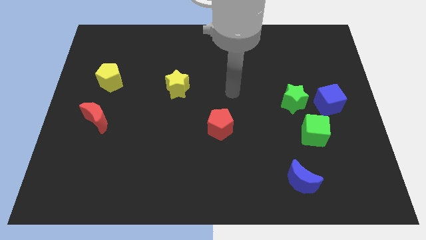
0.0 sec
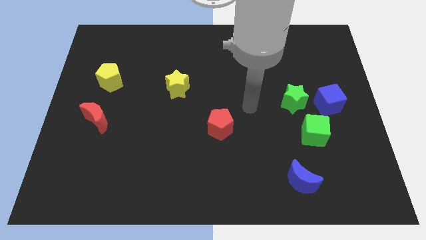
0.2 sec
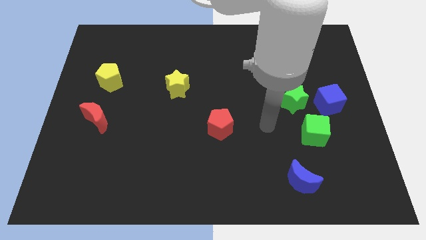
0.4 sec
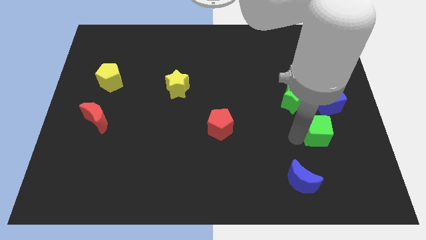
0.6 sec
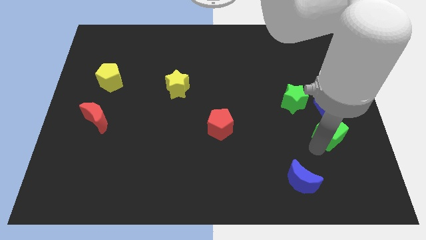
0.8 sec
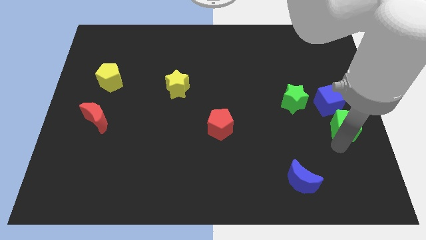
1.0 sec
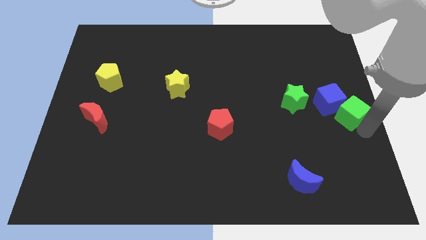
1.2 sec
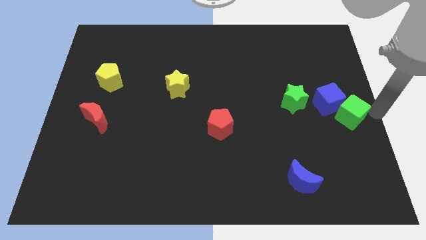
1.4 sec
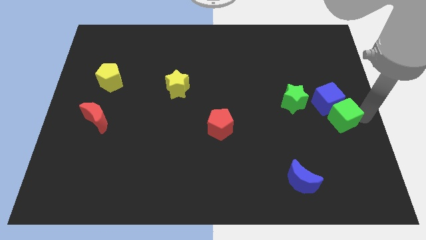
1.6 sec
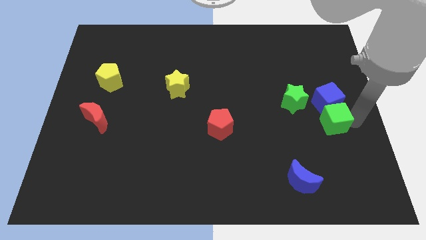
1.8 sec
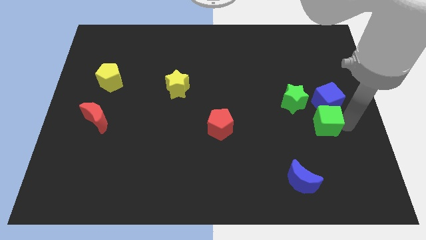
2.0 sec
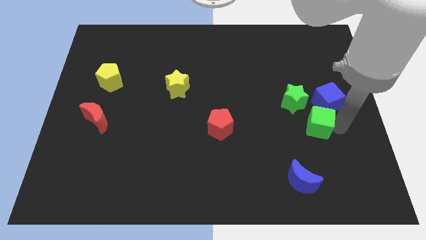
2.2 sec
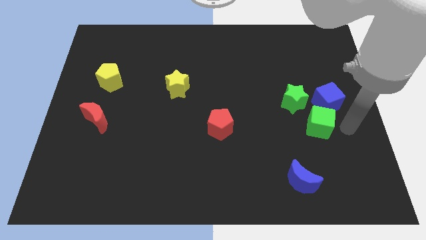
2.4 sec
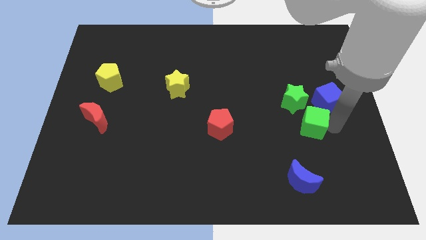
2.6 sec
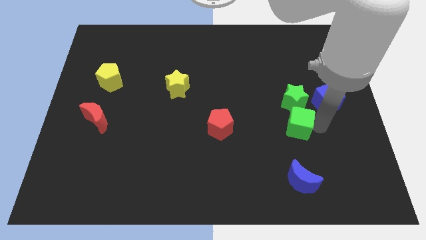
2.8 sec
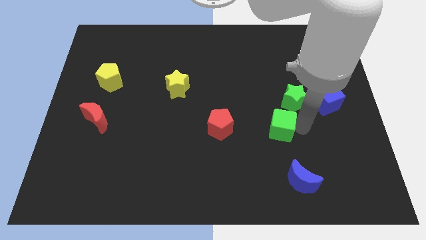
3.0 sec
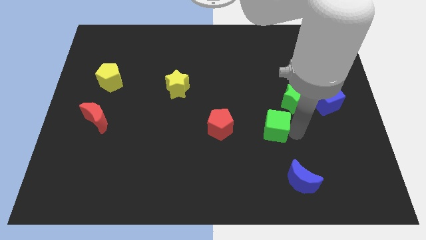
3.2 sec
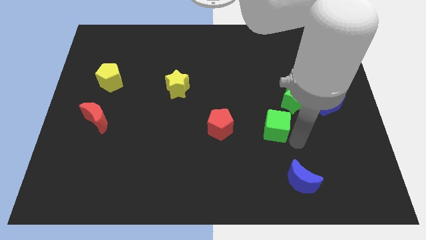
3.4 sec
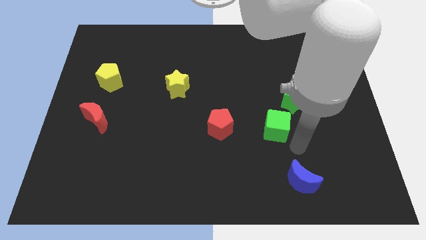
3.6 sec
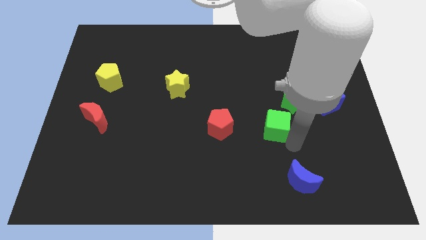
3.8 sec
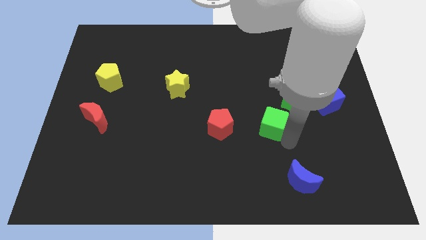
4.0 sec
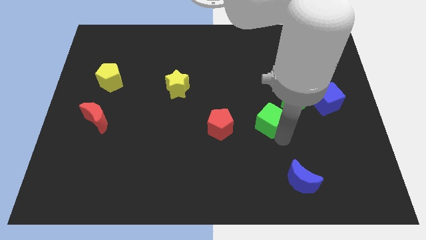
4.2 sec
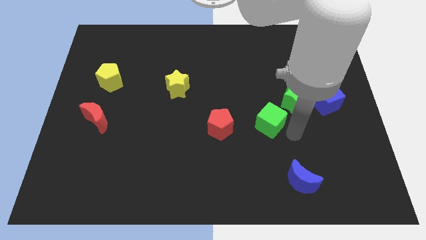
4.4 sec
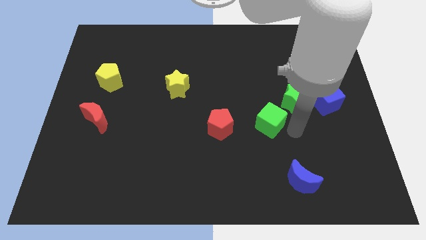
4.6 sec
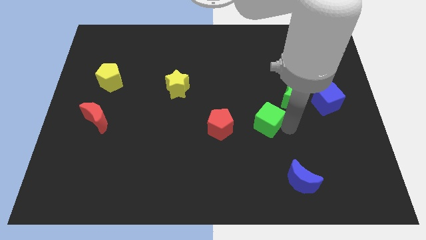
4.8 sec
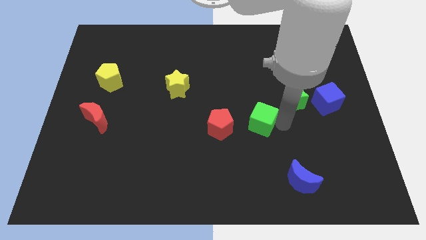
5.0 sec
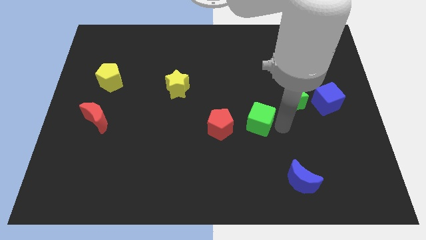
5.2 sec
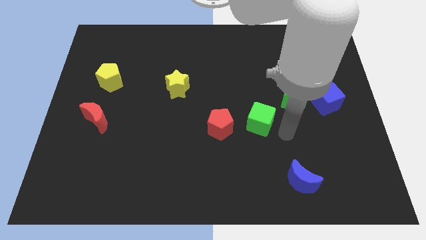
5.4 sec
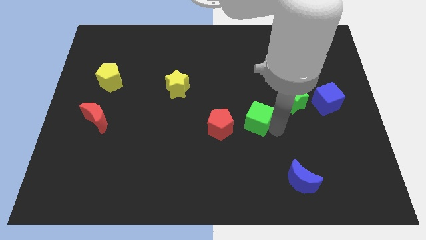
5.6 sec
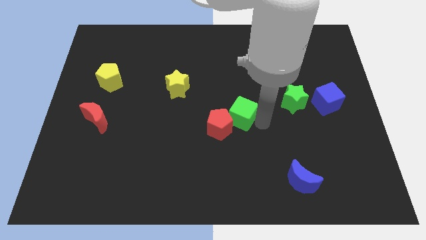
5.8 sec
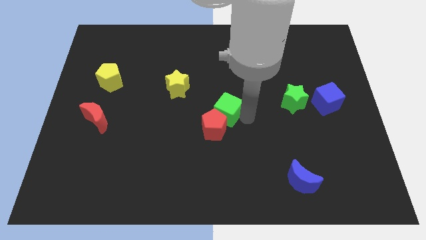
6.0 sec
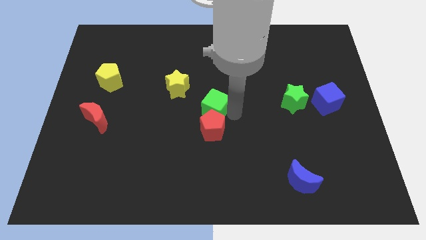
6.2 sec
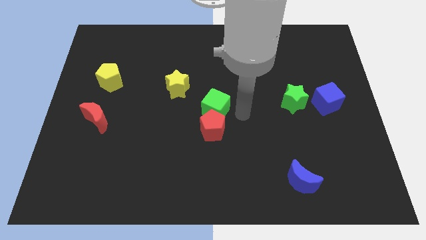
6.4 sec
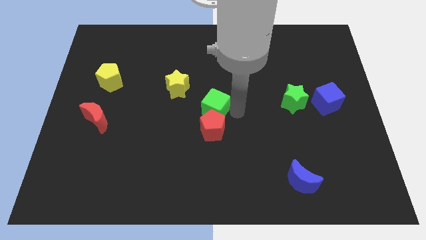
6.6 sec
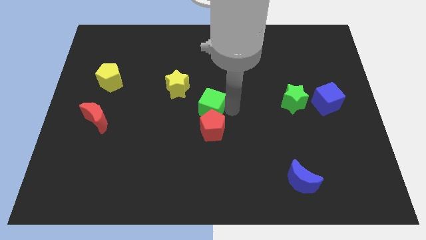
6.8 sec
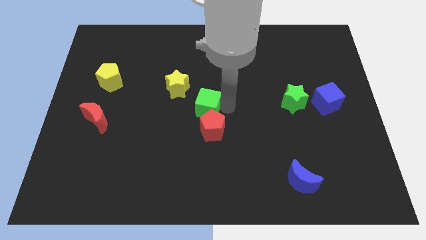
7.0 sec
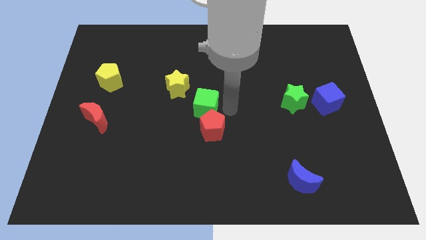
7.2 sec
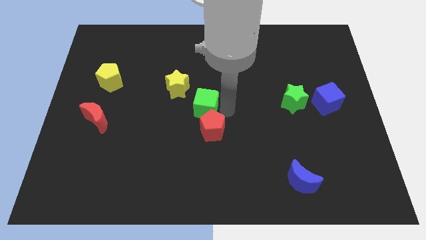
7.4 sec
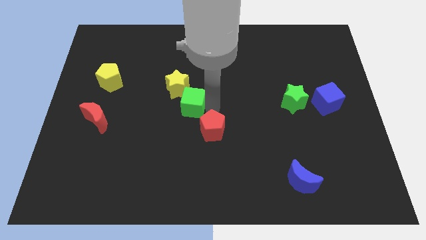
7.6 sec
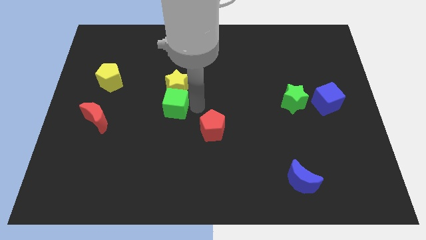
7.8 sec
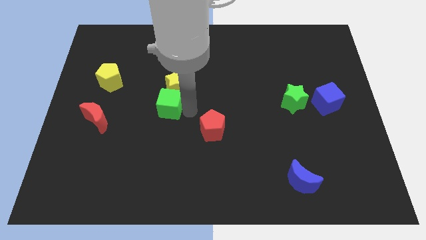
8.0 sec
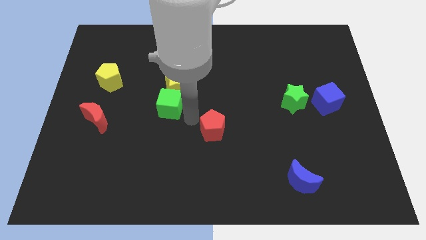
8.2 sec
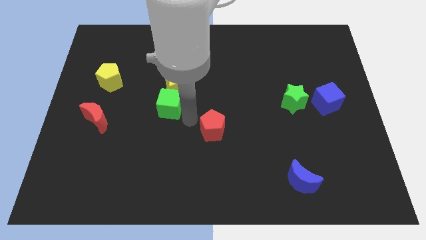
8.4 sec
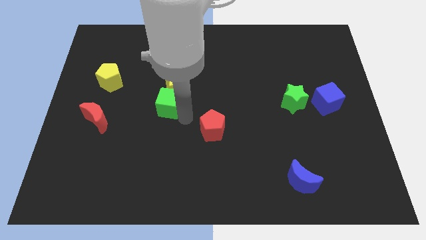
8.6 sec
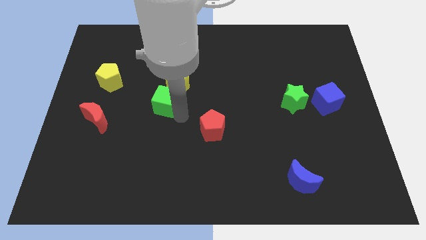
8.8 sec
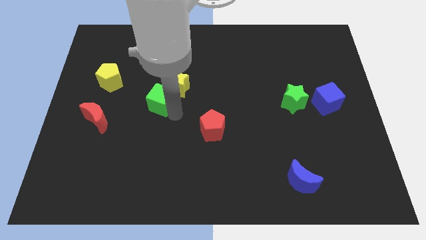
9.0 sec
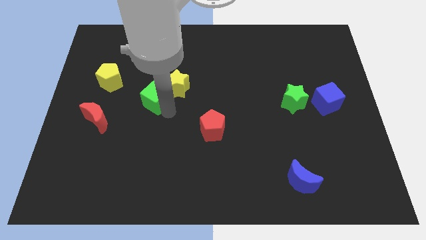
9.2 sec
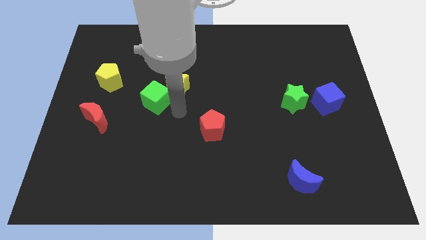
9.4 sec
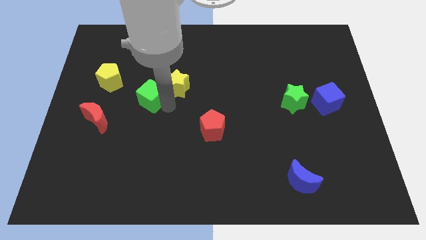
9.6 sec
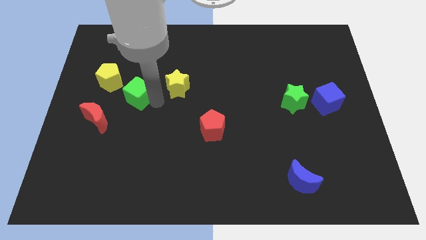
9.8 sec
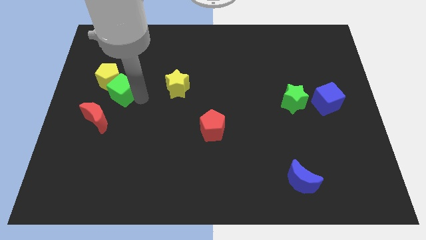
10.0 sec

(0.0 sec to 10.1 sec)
put the green cube next to the yellow pentagon

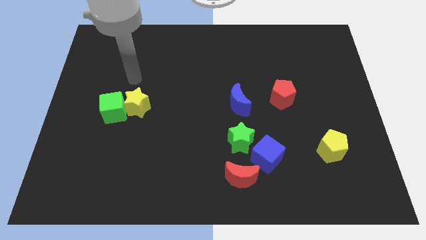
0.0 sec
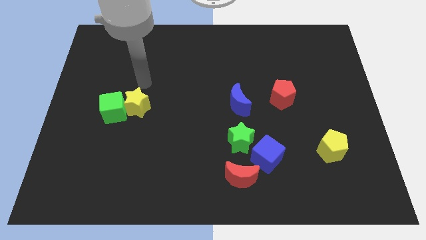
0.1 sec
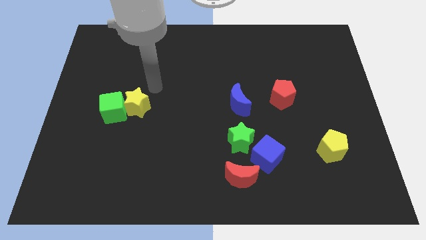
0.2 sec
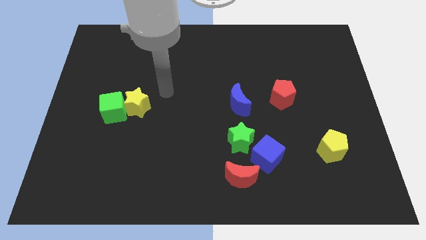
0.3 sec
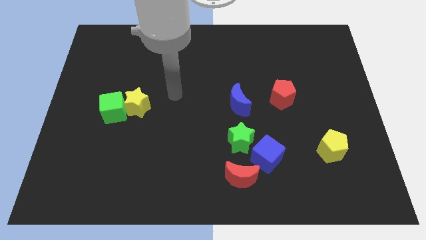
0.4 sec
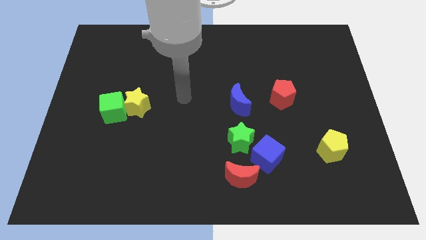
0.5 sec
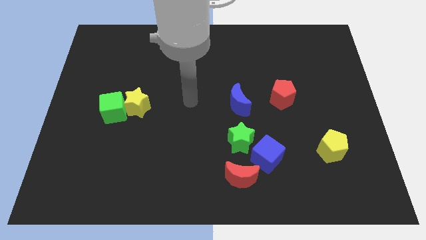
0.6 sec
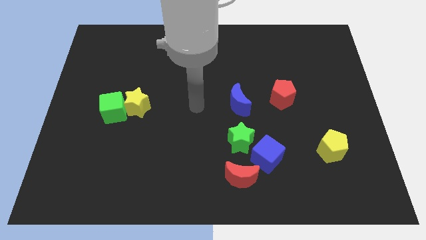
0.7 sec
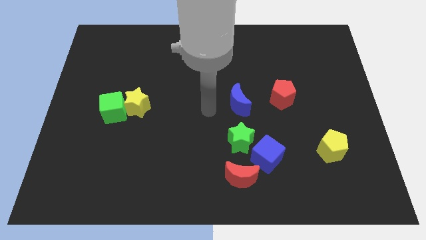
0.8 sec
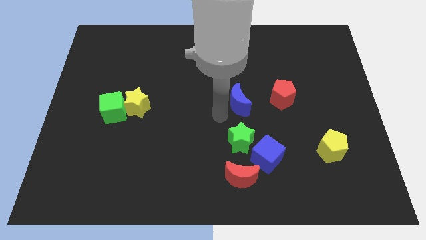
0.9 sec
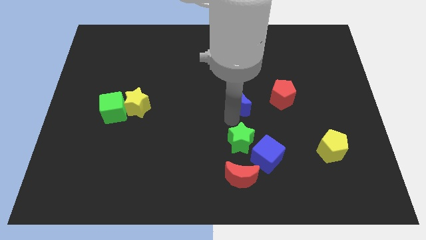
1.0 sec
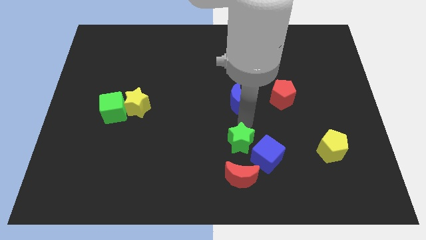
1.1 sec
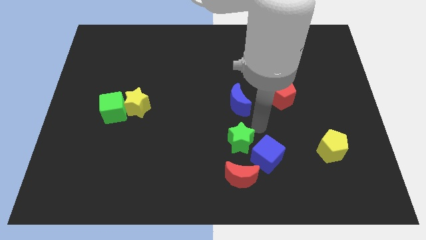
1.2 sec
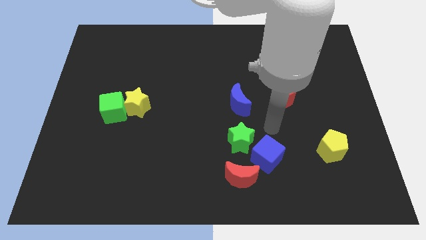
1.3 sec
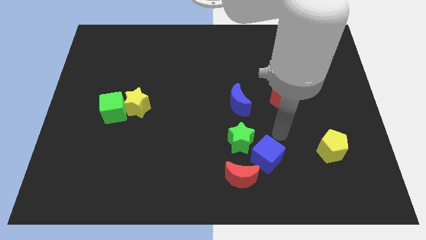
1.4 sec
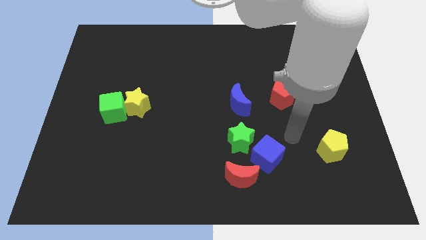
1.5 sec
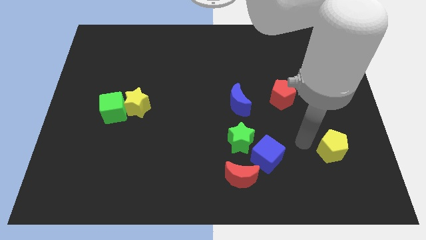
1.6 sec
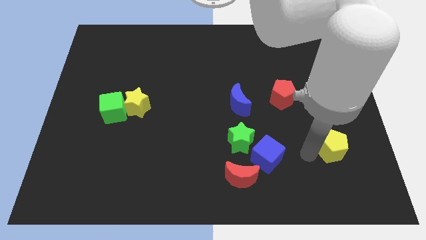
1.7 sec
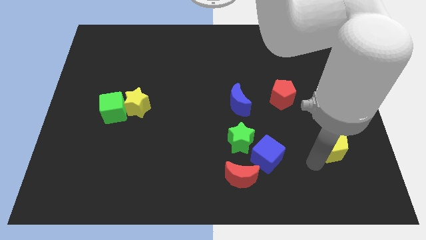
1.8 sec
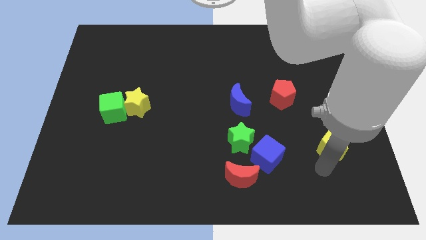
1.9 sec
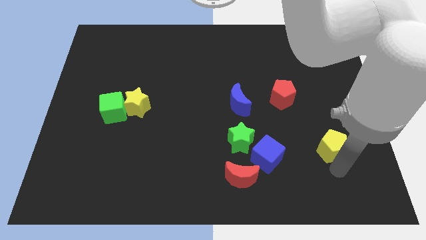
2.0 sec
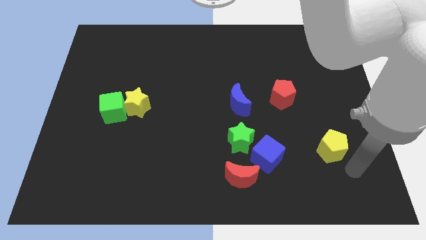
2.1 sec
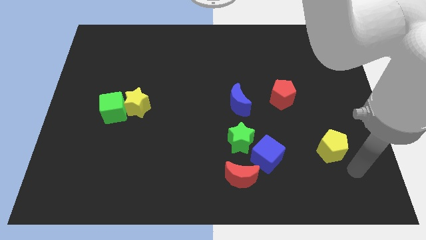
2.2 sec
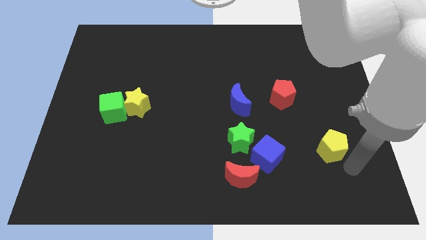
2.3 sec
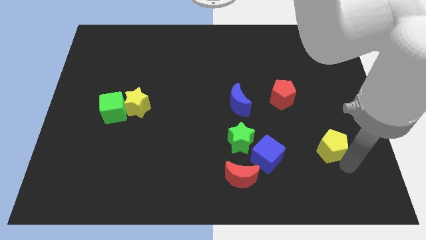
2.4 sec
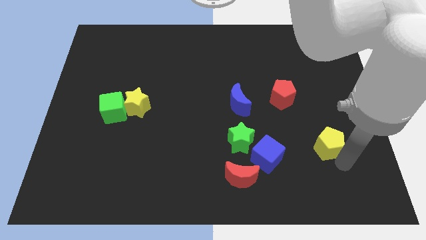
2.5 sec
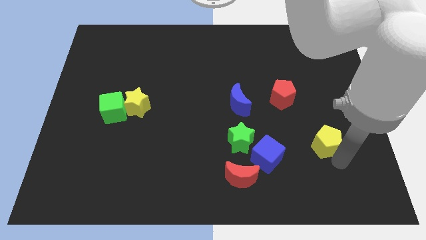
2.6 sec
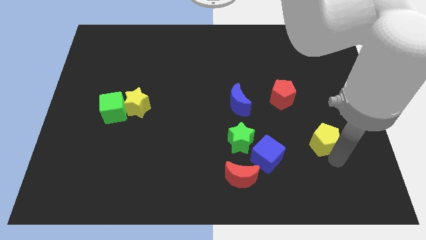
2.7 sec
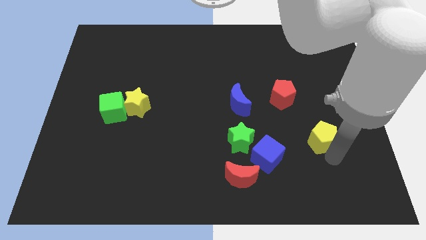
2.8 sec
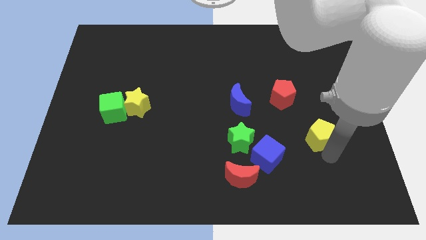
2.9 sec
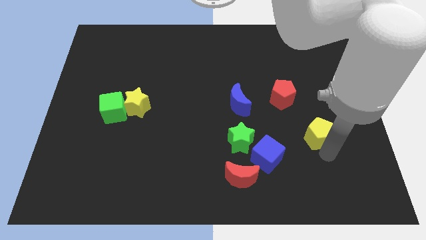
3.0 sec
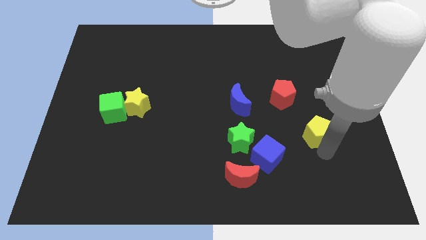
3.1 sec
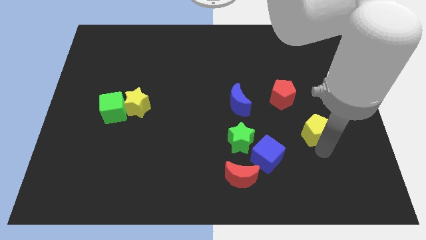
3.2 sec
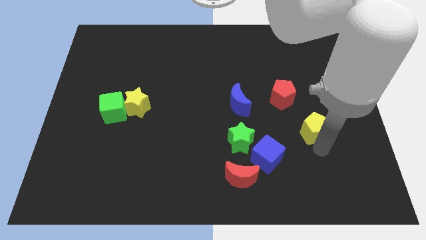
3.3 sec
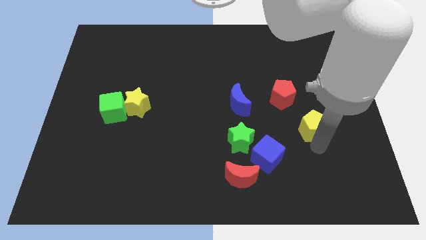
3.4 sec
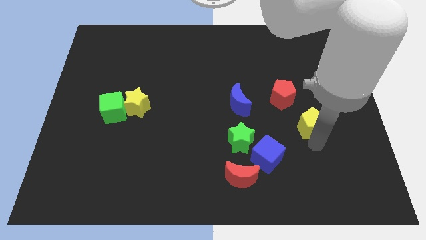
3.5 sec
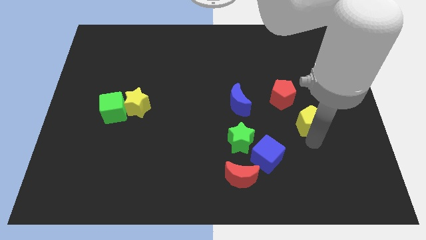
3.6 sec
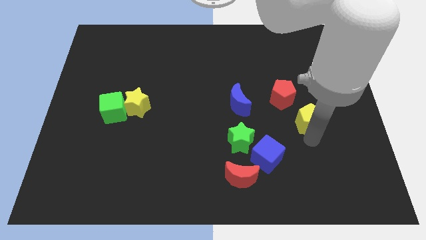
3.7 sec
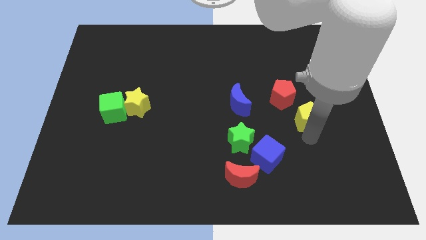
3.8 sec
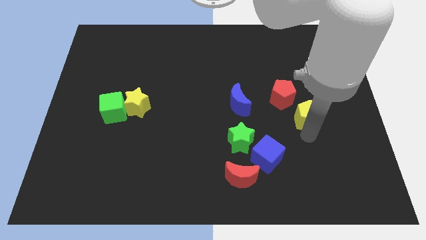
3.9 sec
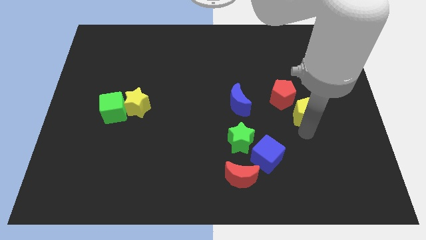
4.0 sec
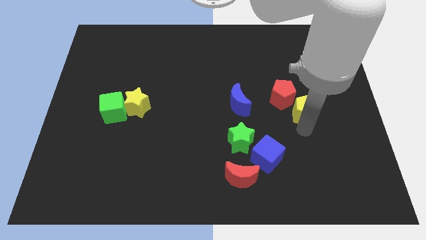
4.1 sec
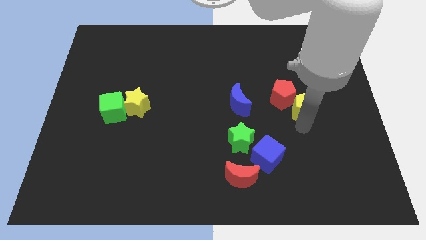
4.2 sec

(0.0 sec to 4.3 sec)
move the yellow pentagon next to the red pentagon
